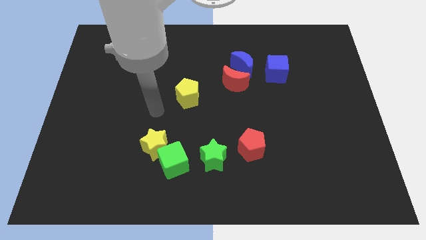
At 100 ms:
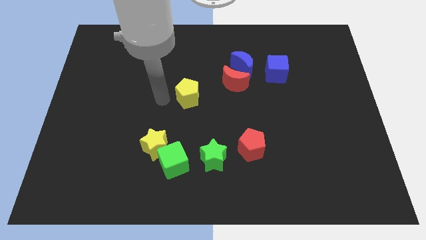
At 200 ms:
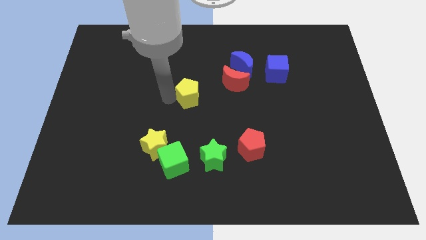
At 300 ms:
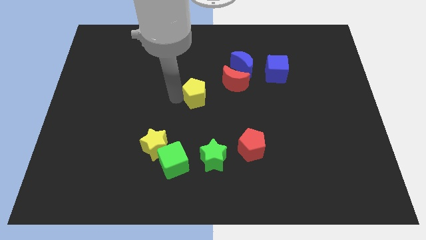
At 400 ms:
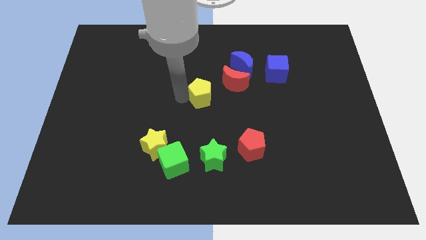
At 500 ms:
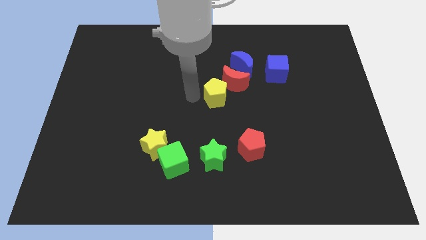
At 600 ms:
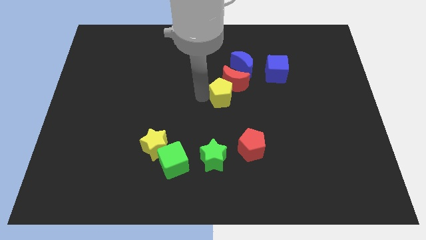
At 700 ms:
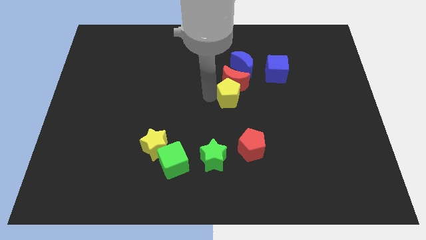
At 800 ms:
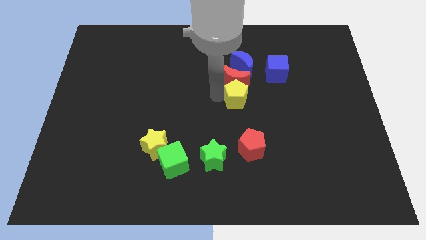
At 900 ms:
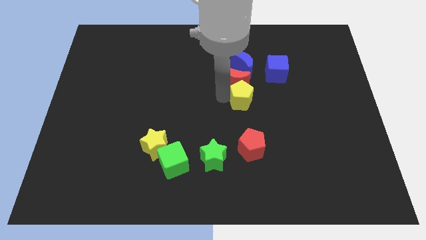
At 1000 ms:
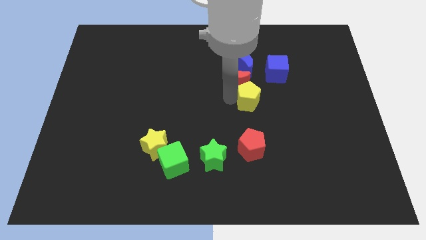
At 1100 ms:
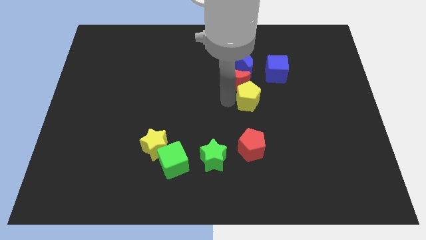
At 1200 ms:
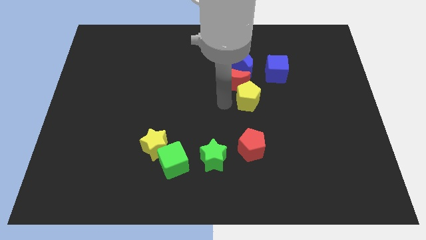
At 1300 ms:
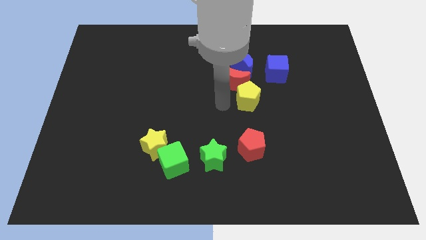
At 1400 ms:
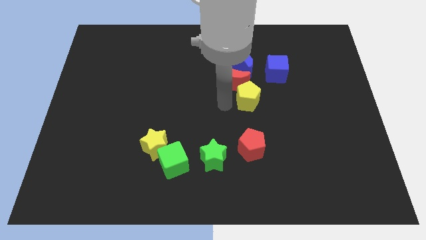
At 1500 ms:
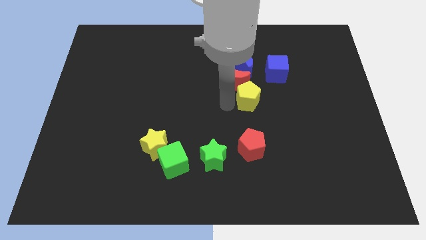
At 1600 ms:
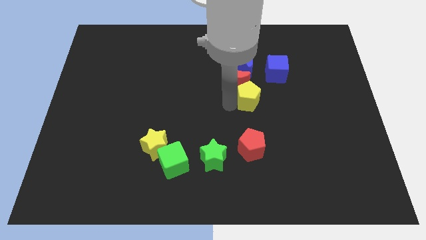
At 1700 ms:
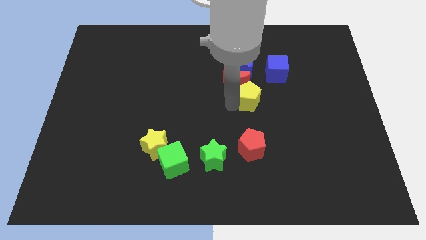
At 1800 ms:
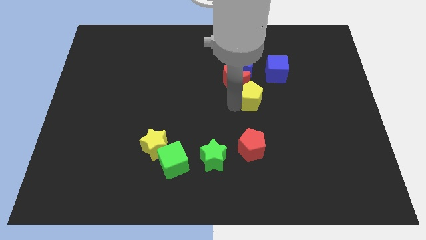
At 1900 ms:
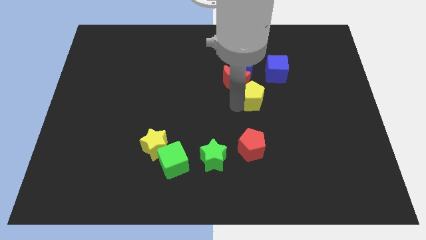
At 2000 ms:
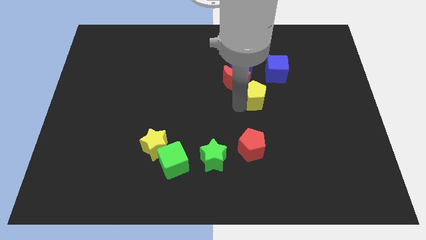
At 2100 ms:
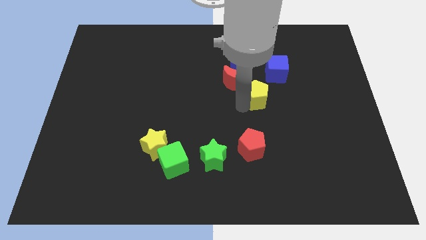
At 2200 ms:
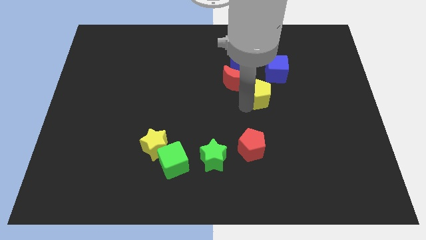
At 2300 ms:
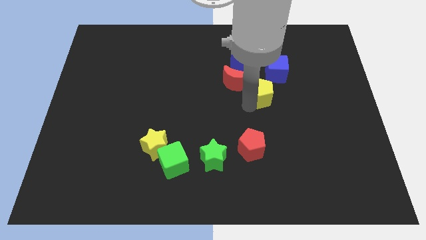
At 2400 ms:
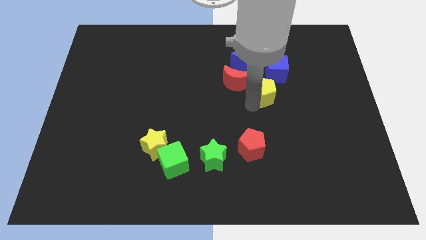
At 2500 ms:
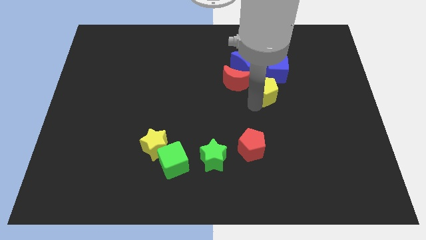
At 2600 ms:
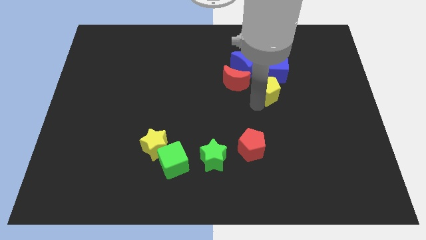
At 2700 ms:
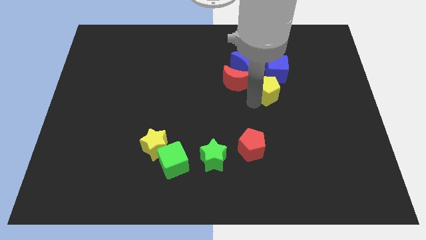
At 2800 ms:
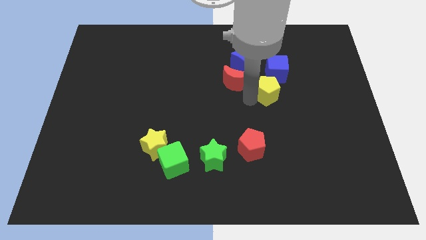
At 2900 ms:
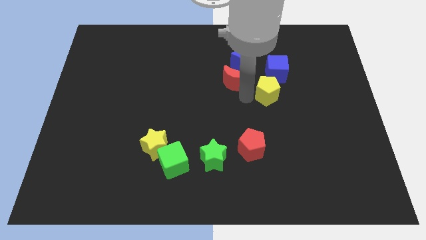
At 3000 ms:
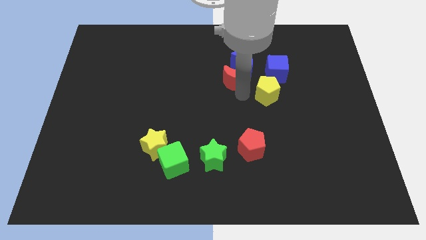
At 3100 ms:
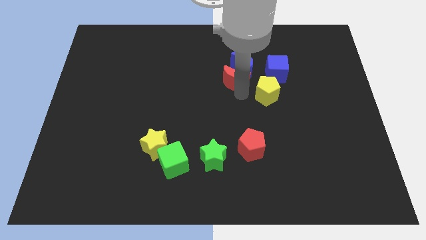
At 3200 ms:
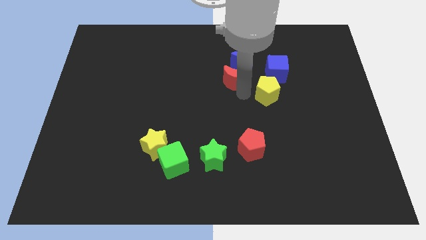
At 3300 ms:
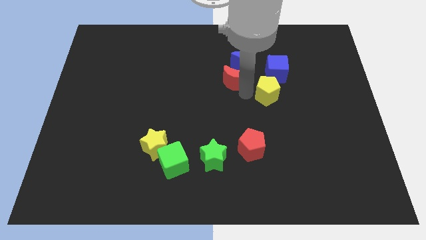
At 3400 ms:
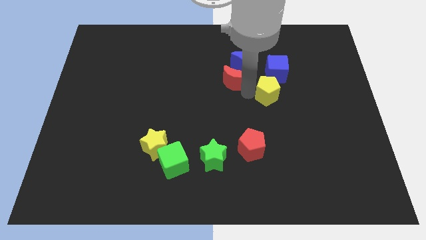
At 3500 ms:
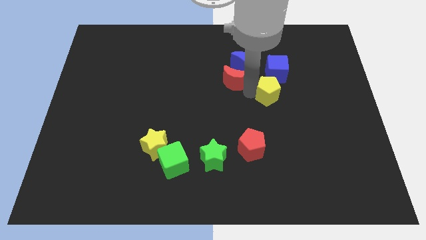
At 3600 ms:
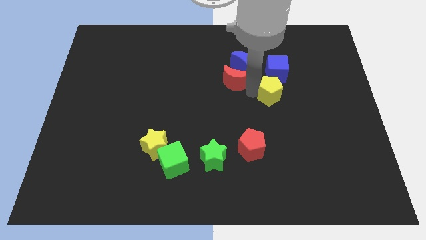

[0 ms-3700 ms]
slide the yellow pentagon to the right

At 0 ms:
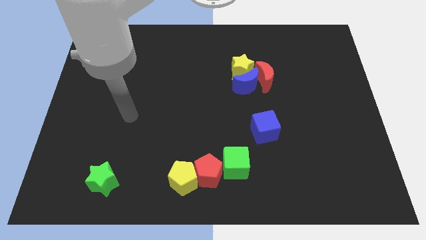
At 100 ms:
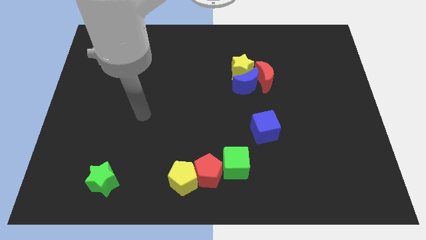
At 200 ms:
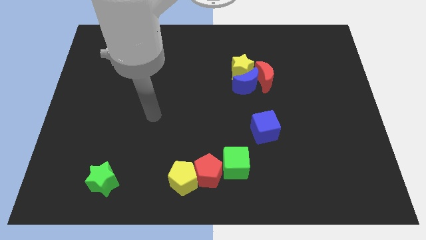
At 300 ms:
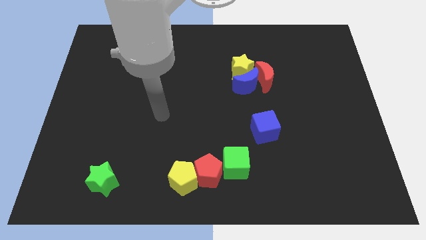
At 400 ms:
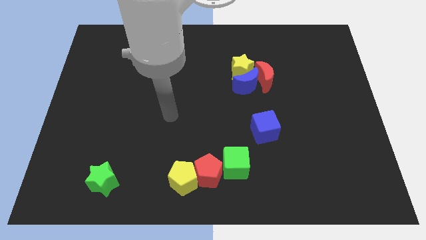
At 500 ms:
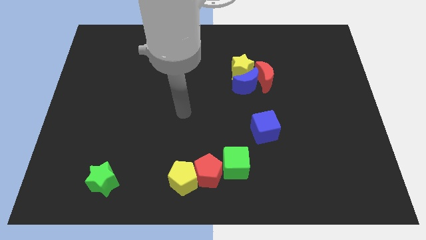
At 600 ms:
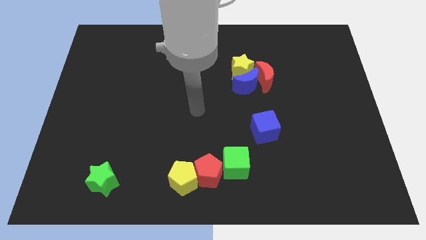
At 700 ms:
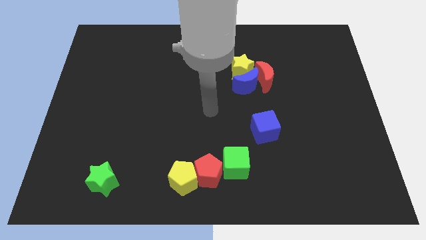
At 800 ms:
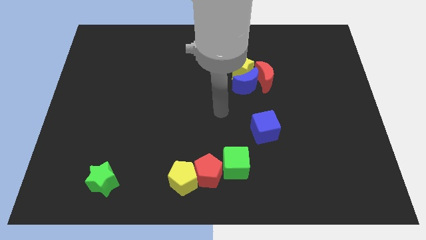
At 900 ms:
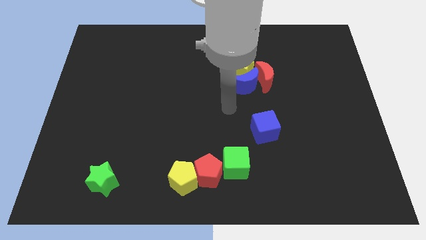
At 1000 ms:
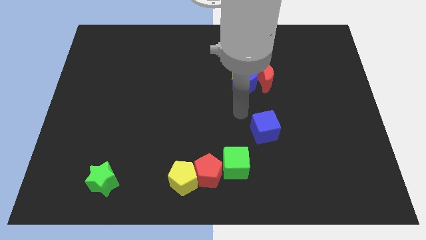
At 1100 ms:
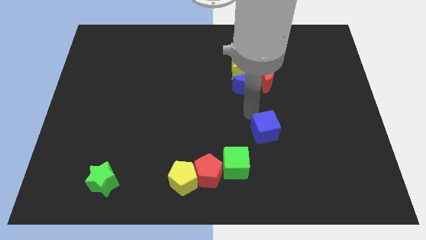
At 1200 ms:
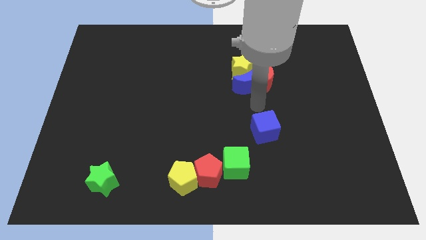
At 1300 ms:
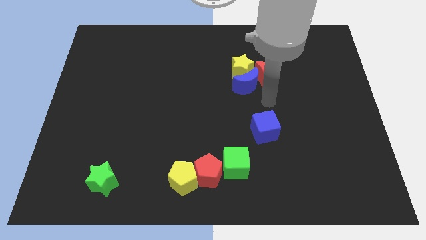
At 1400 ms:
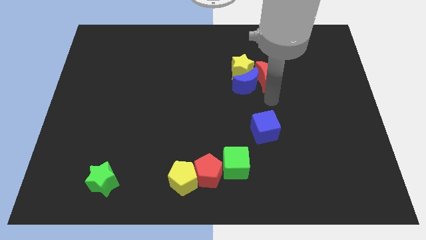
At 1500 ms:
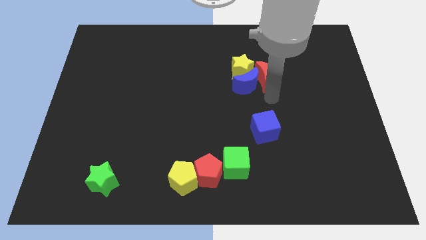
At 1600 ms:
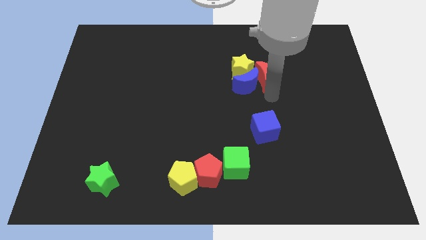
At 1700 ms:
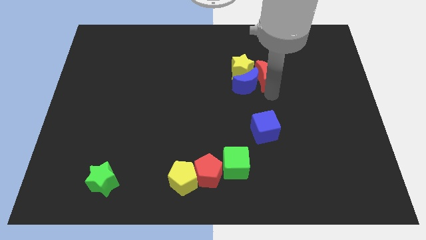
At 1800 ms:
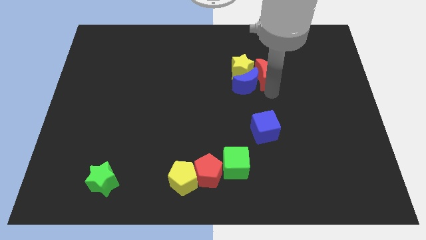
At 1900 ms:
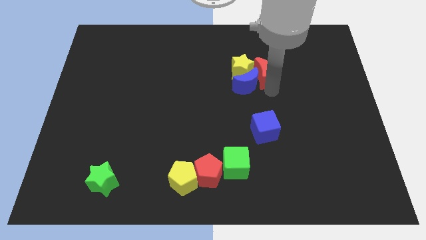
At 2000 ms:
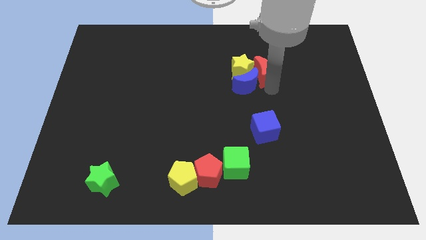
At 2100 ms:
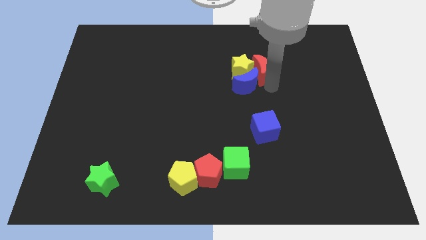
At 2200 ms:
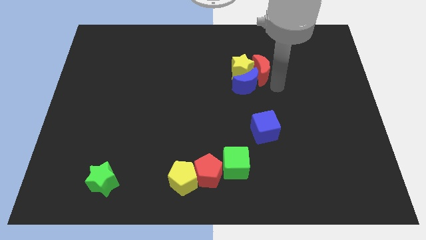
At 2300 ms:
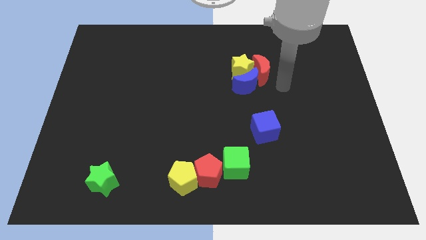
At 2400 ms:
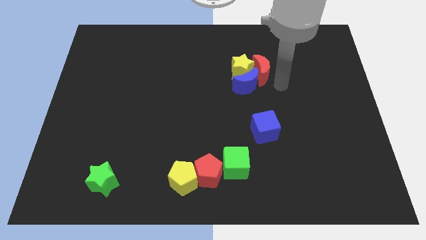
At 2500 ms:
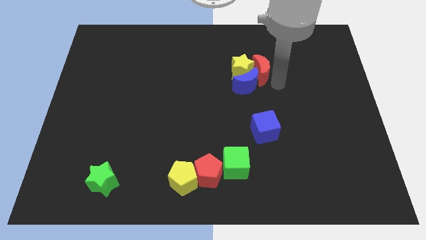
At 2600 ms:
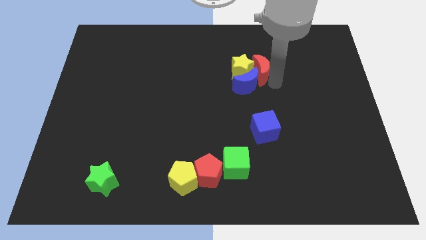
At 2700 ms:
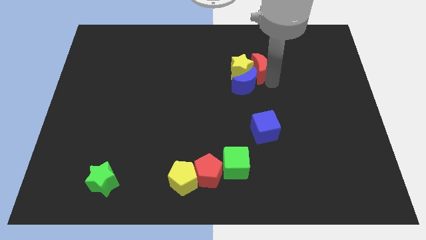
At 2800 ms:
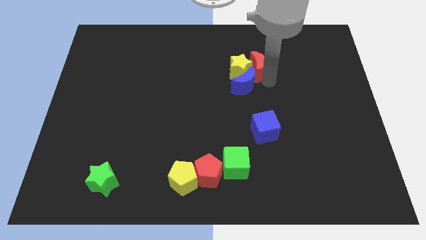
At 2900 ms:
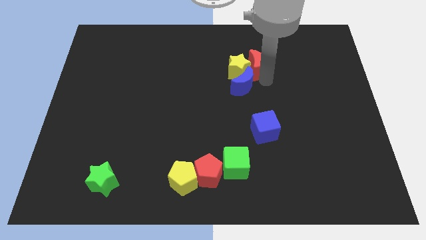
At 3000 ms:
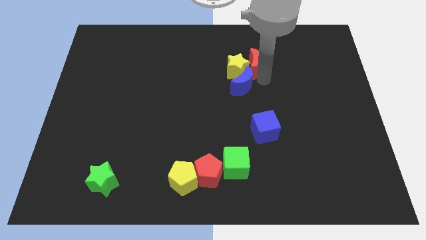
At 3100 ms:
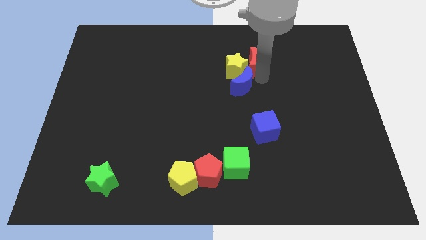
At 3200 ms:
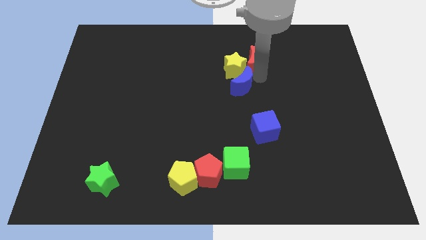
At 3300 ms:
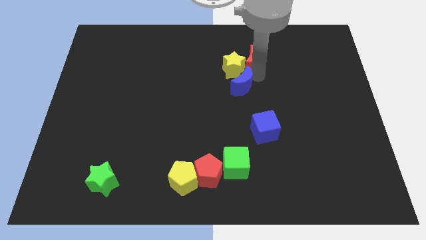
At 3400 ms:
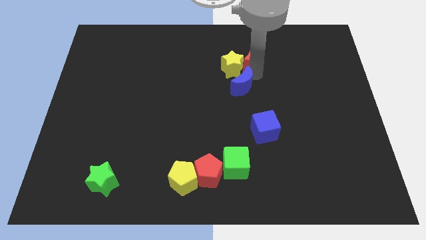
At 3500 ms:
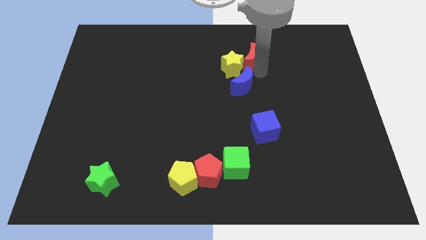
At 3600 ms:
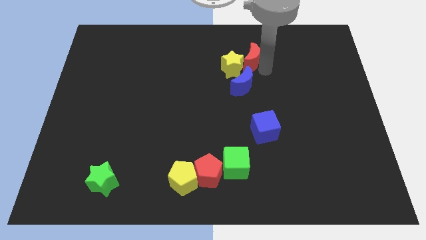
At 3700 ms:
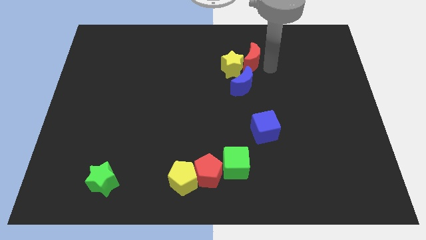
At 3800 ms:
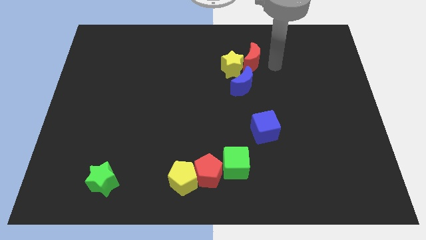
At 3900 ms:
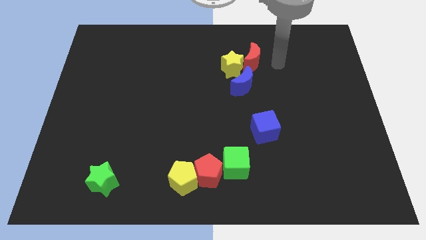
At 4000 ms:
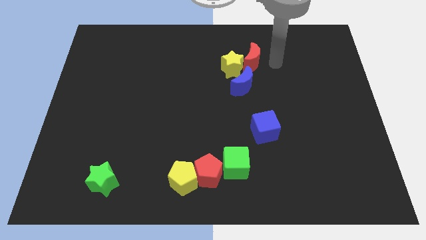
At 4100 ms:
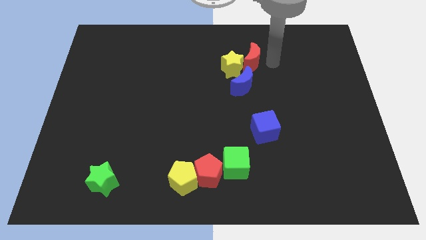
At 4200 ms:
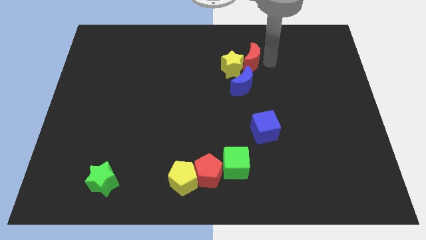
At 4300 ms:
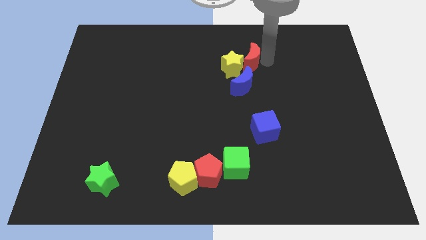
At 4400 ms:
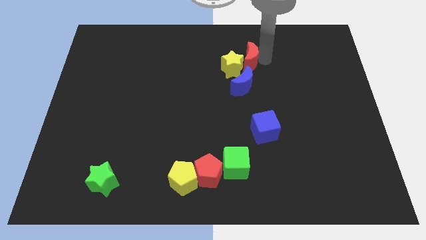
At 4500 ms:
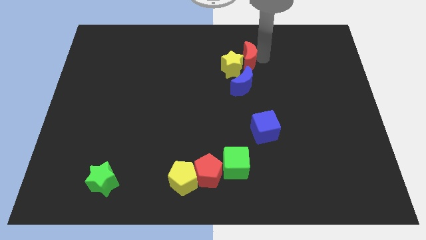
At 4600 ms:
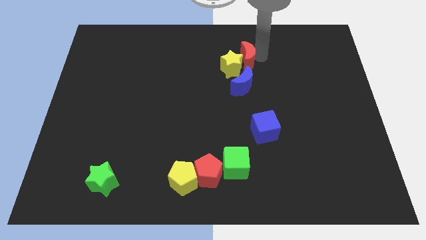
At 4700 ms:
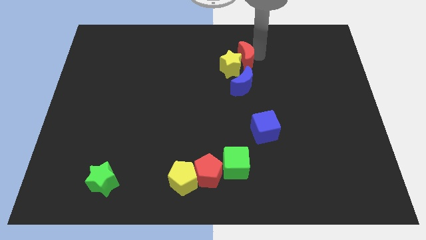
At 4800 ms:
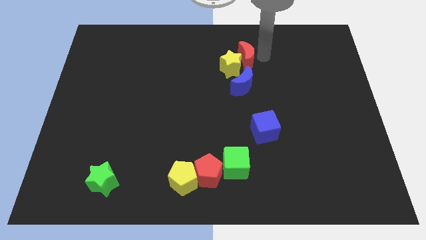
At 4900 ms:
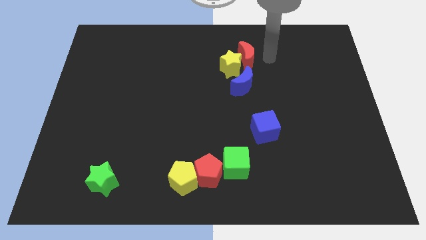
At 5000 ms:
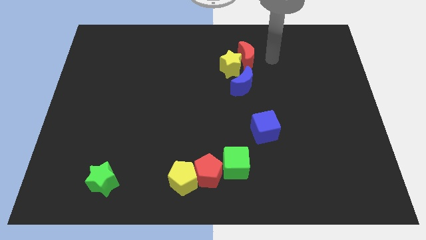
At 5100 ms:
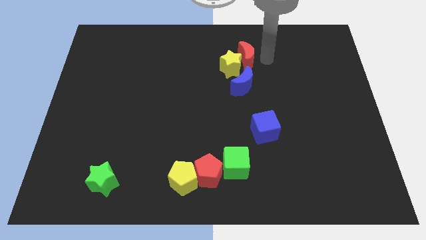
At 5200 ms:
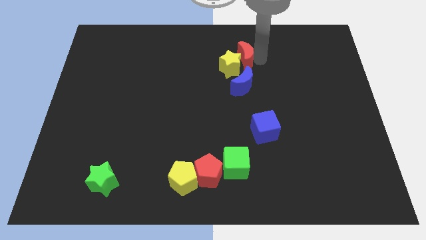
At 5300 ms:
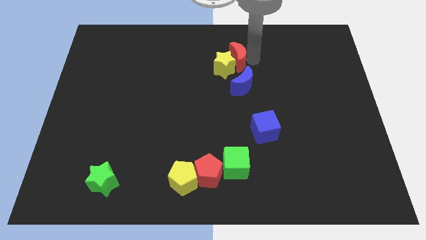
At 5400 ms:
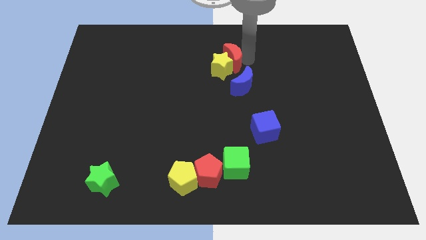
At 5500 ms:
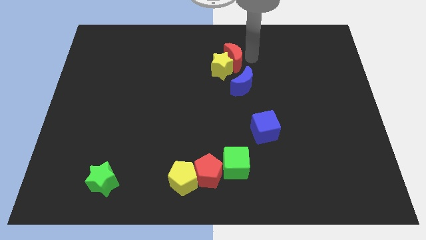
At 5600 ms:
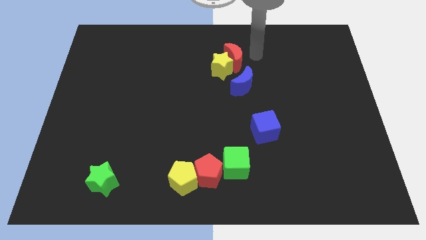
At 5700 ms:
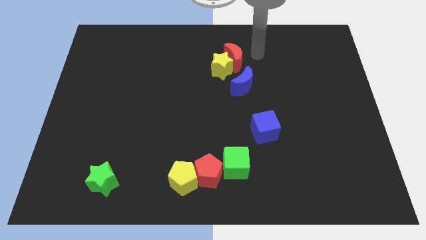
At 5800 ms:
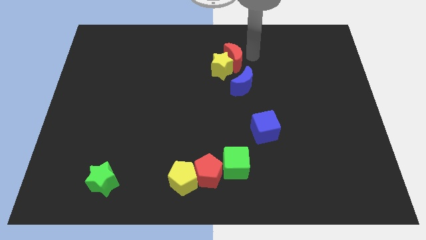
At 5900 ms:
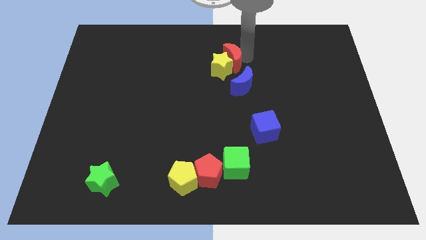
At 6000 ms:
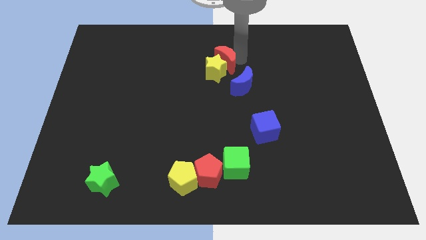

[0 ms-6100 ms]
slightly push the red moon left
